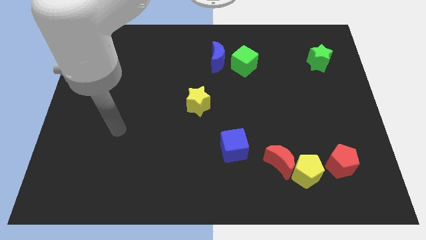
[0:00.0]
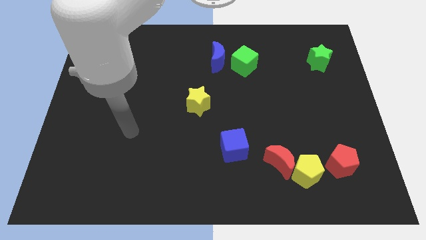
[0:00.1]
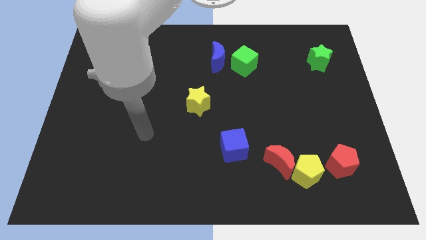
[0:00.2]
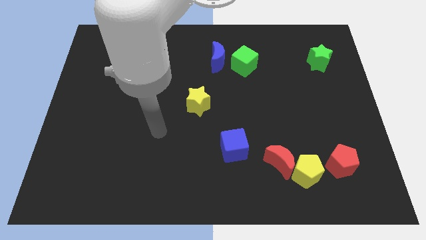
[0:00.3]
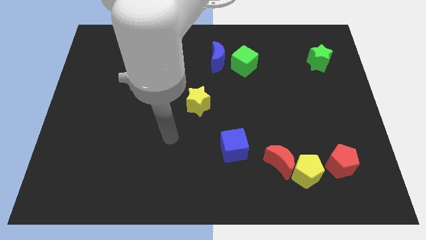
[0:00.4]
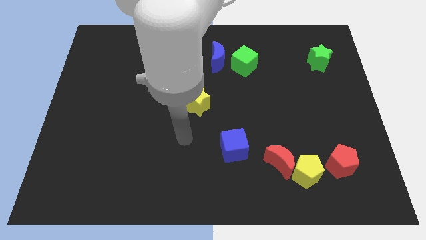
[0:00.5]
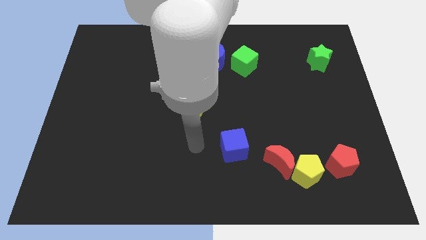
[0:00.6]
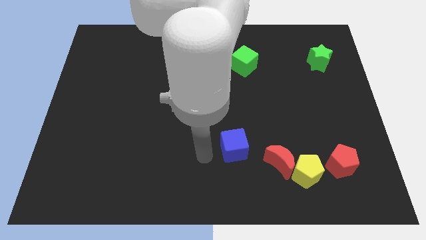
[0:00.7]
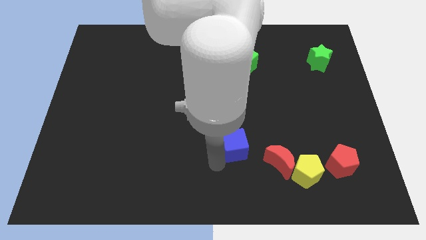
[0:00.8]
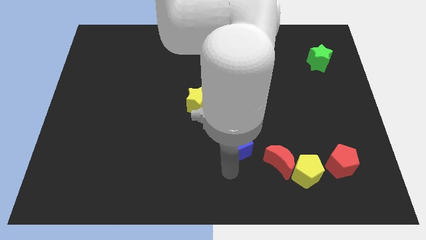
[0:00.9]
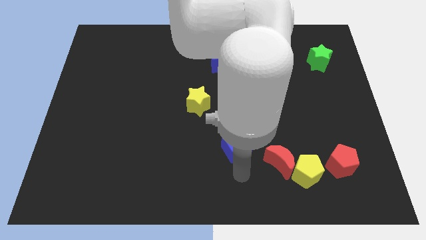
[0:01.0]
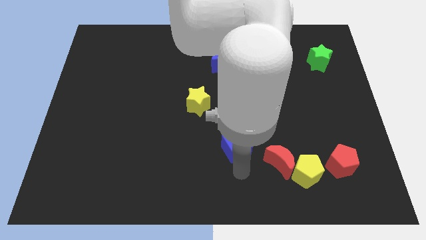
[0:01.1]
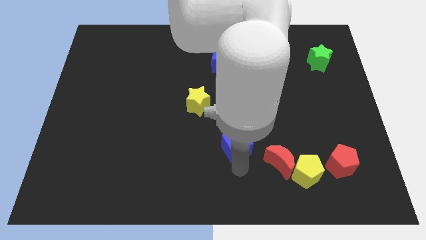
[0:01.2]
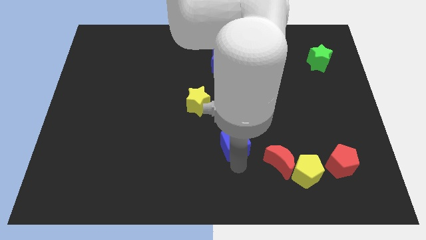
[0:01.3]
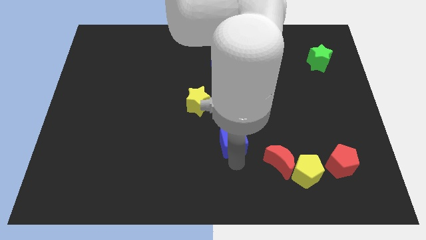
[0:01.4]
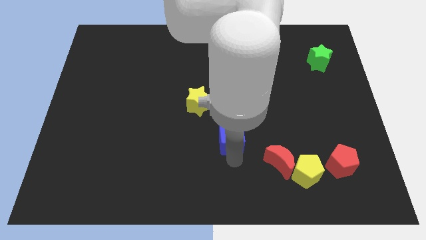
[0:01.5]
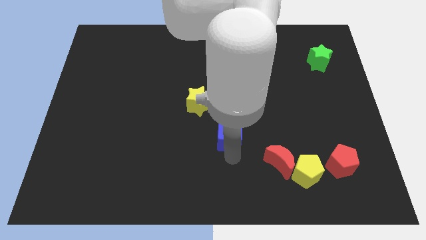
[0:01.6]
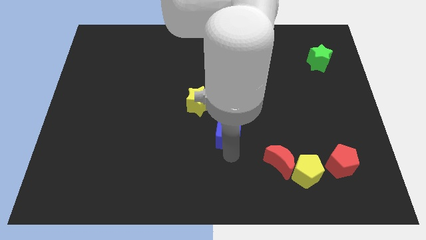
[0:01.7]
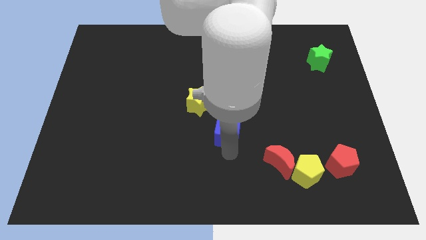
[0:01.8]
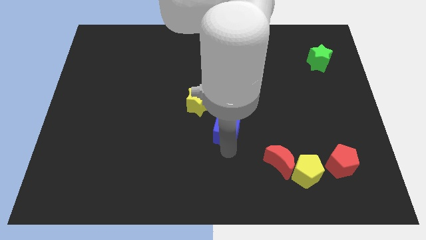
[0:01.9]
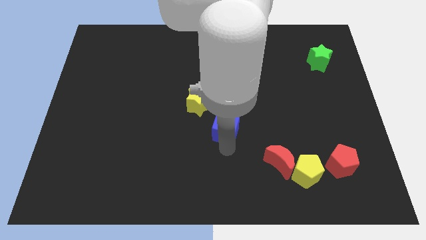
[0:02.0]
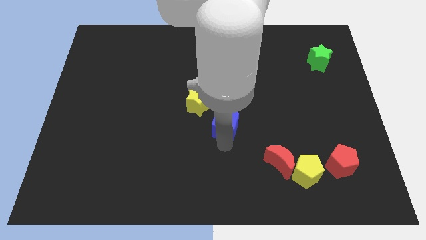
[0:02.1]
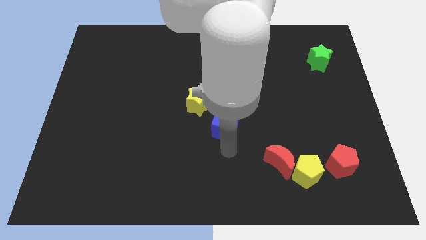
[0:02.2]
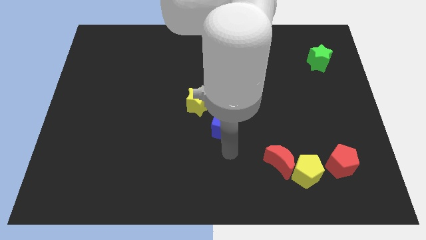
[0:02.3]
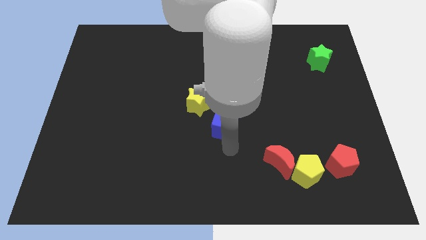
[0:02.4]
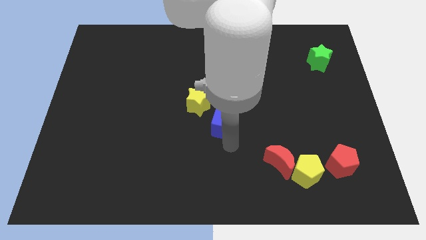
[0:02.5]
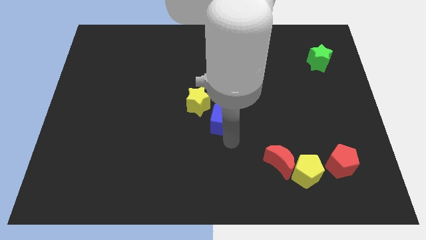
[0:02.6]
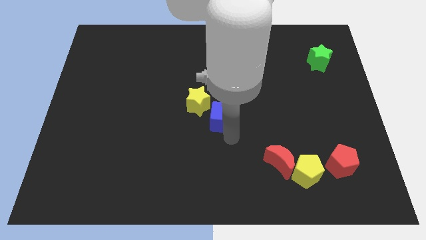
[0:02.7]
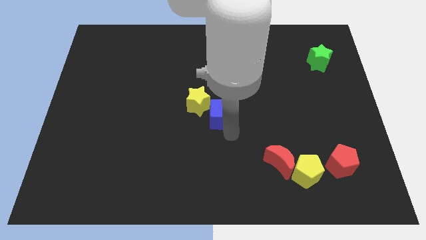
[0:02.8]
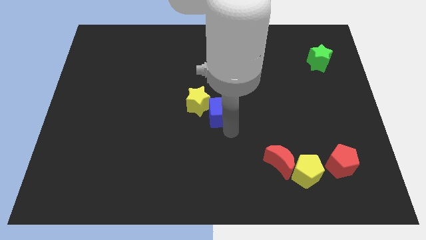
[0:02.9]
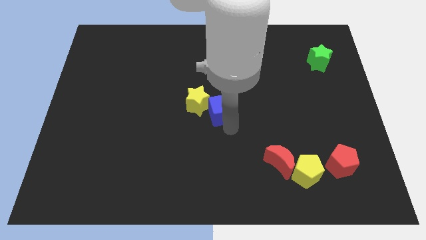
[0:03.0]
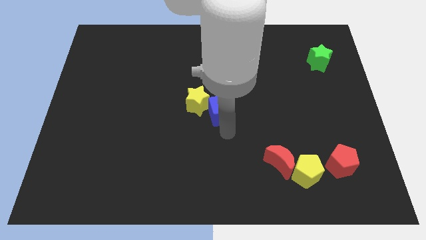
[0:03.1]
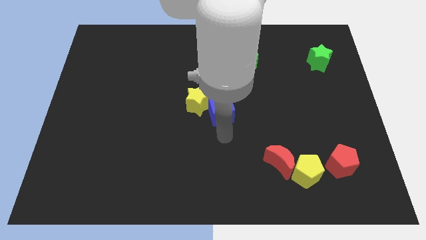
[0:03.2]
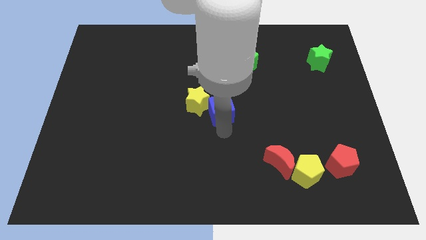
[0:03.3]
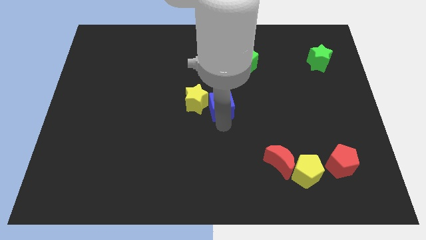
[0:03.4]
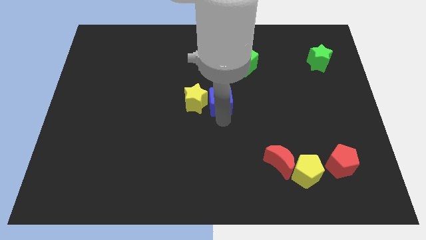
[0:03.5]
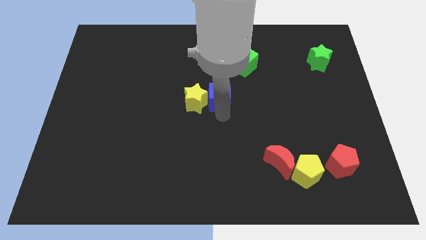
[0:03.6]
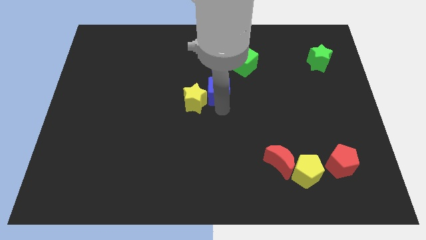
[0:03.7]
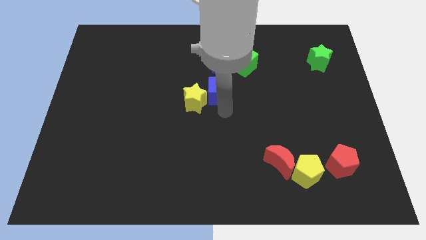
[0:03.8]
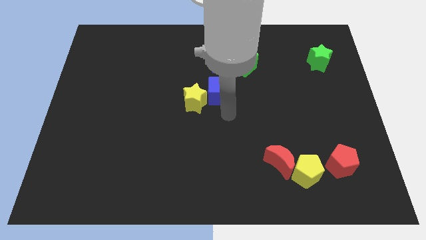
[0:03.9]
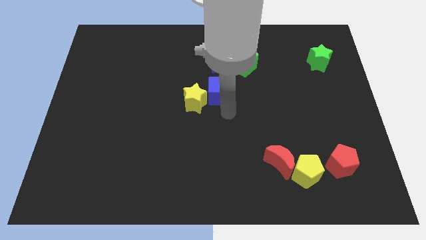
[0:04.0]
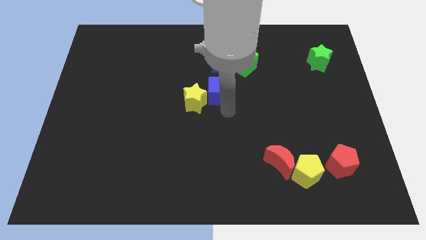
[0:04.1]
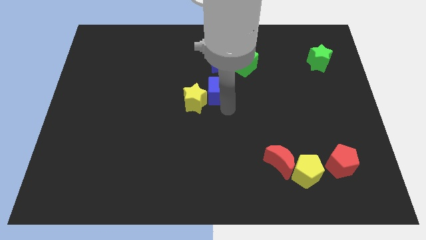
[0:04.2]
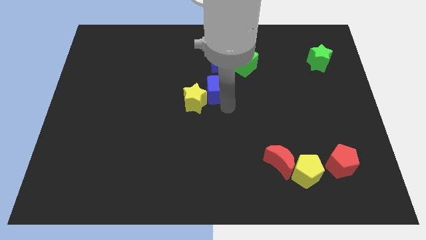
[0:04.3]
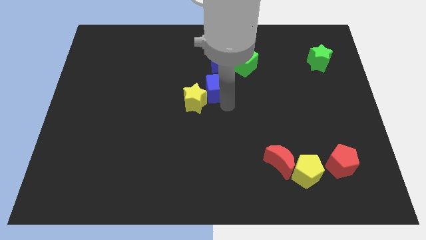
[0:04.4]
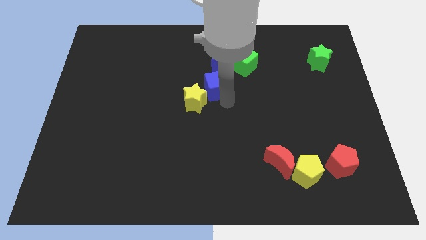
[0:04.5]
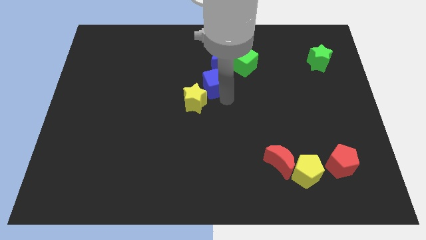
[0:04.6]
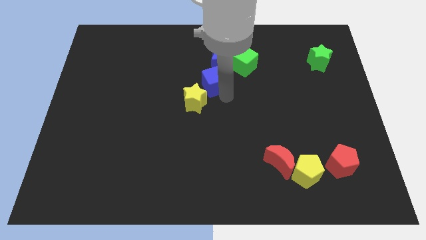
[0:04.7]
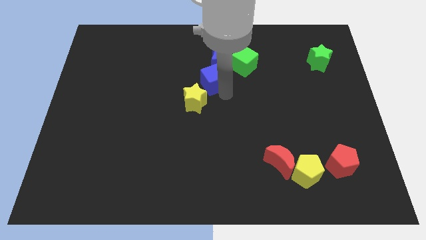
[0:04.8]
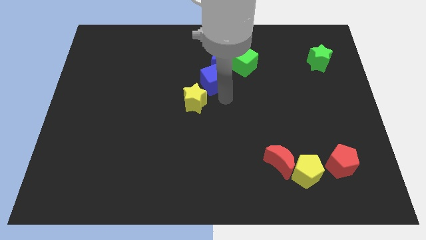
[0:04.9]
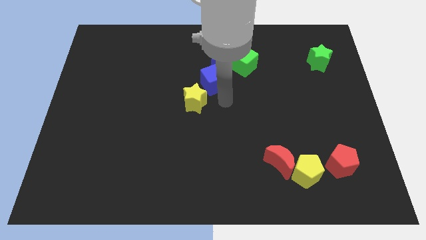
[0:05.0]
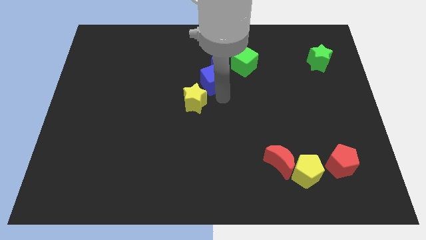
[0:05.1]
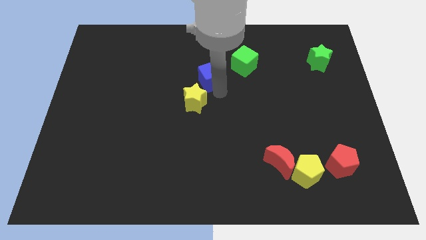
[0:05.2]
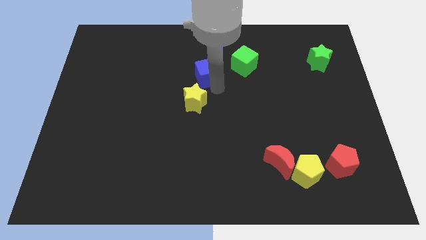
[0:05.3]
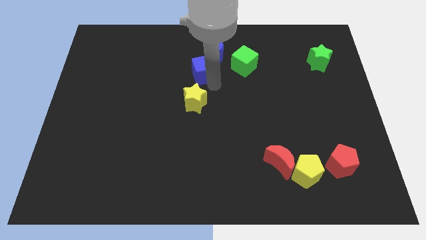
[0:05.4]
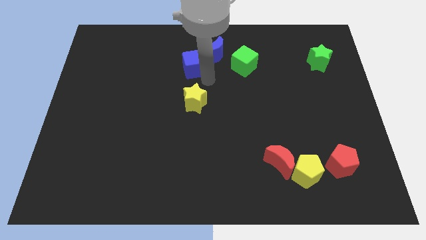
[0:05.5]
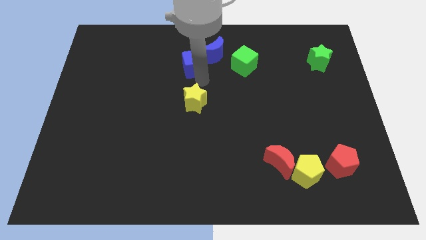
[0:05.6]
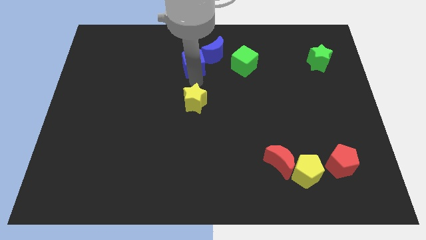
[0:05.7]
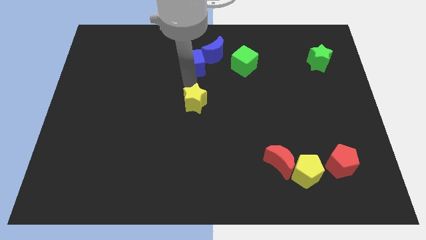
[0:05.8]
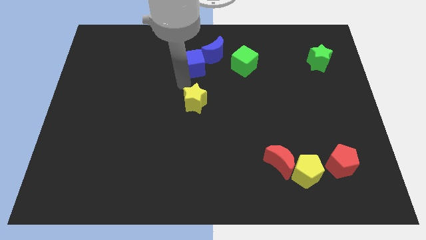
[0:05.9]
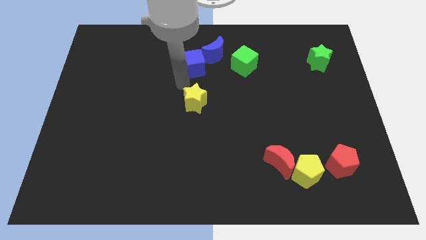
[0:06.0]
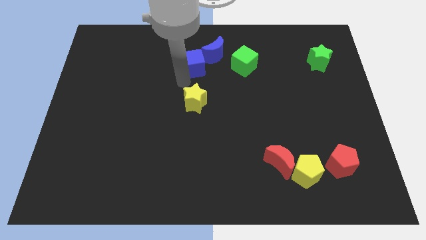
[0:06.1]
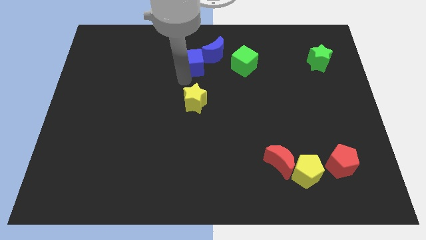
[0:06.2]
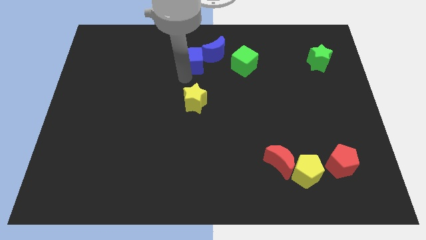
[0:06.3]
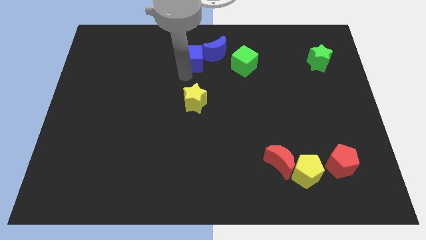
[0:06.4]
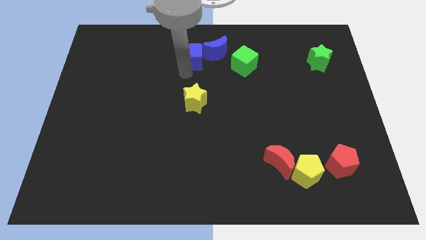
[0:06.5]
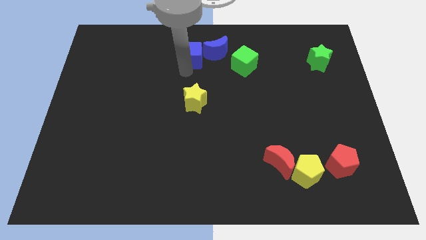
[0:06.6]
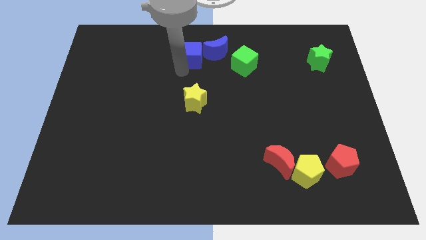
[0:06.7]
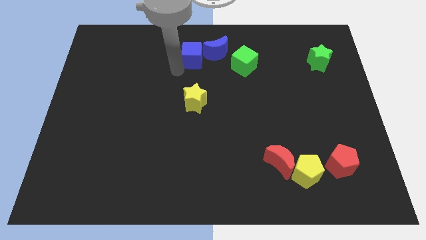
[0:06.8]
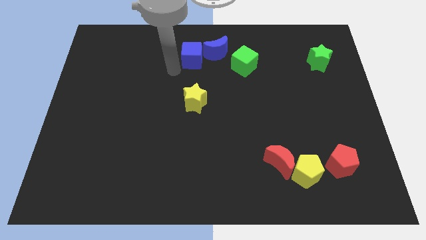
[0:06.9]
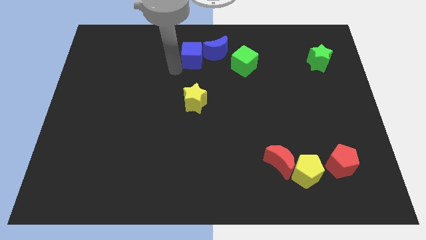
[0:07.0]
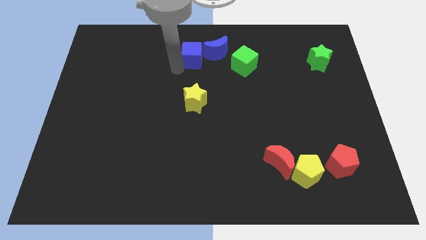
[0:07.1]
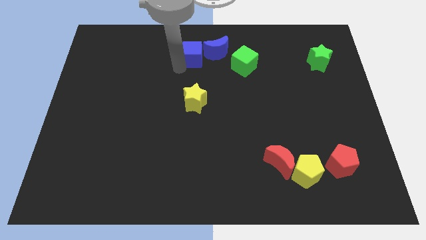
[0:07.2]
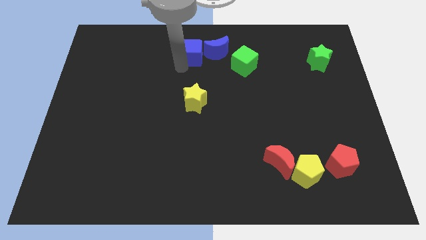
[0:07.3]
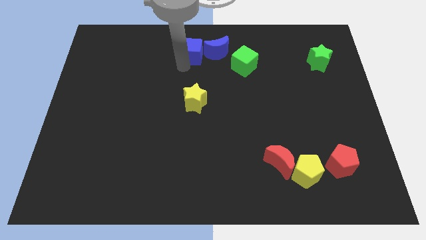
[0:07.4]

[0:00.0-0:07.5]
push the blue cube to the towards your base
